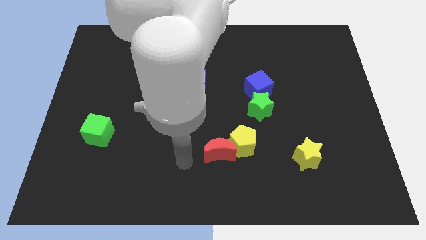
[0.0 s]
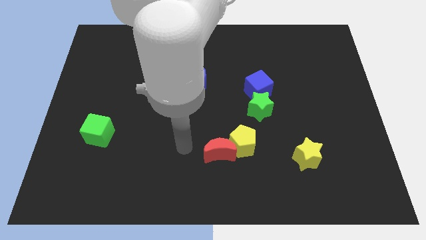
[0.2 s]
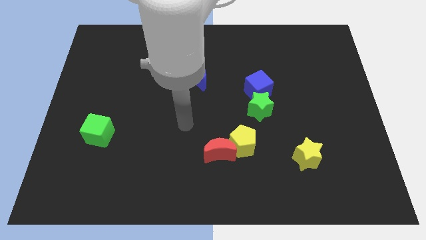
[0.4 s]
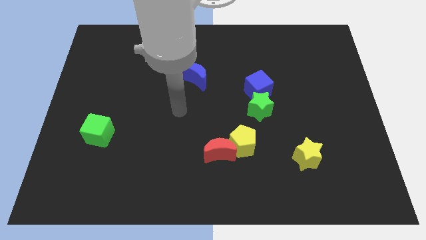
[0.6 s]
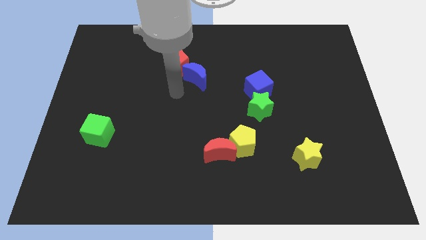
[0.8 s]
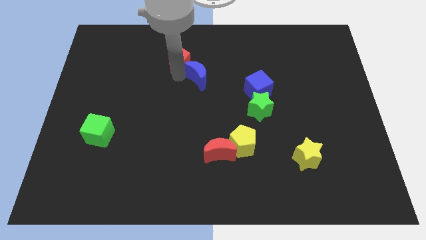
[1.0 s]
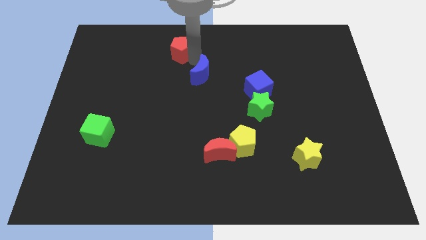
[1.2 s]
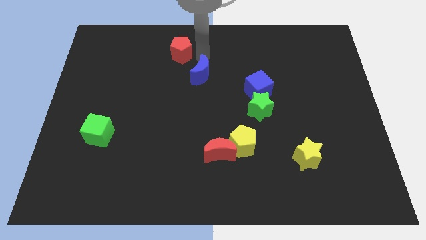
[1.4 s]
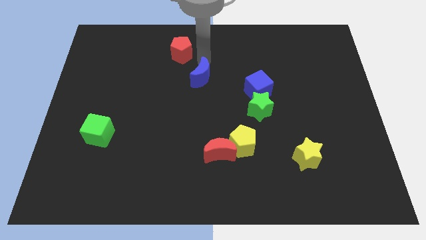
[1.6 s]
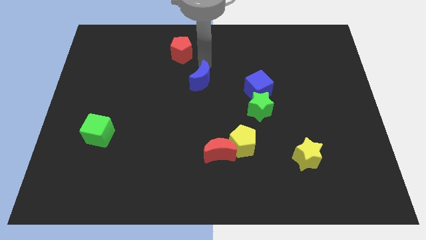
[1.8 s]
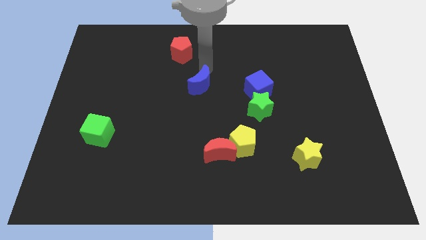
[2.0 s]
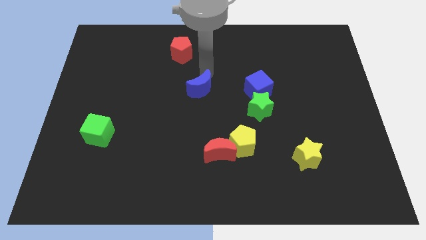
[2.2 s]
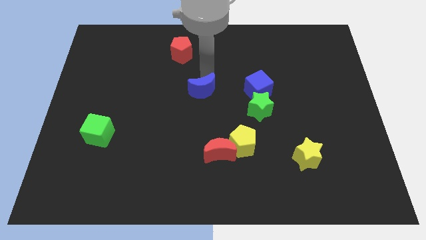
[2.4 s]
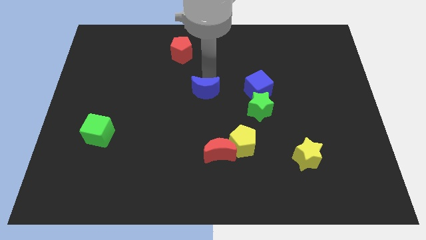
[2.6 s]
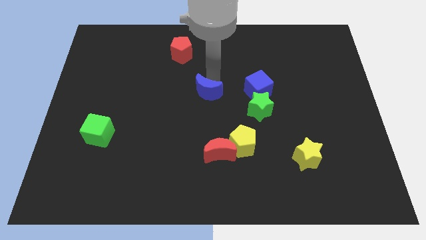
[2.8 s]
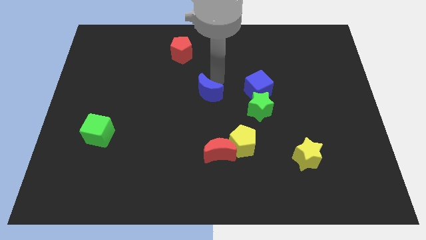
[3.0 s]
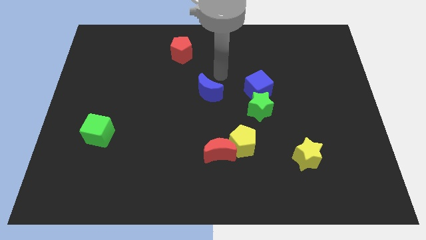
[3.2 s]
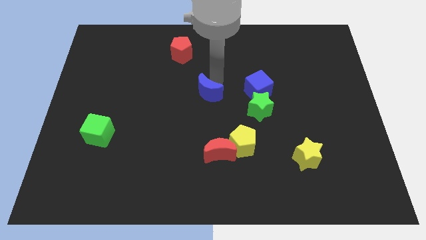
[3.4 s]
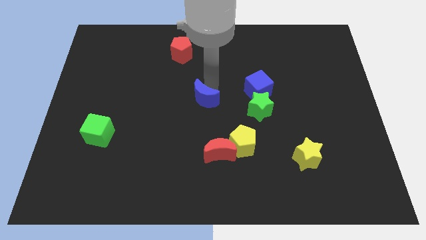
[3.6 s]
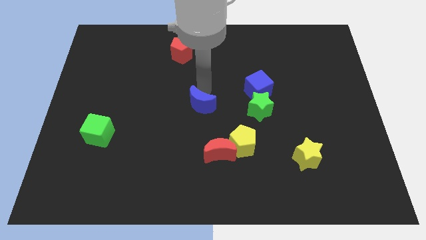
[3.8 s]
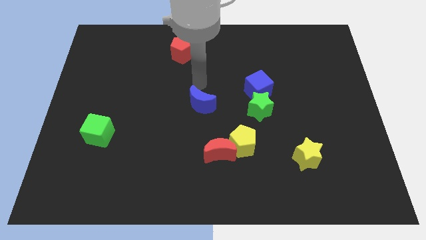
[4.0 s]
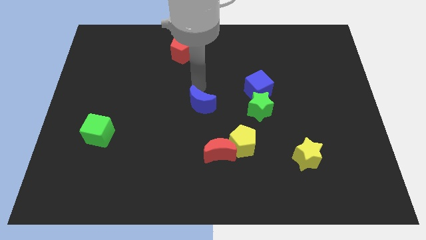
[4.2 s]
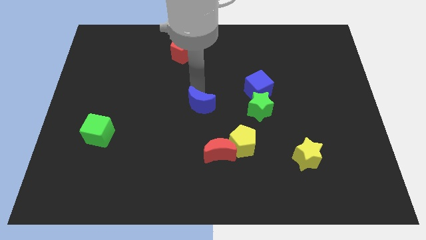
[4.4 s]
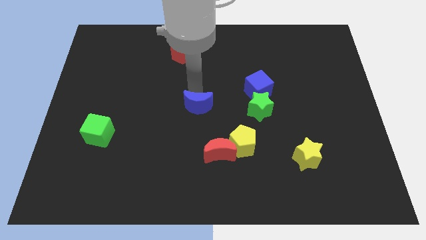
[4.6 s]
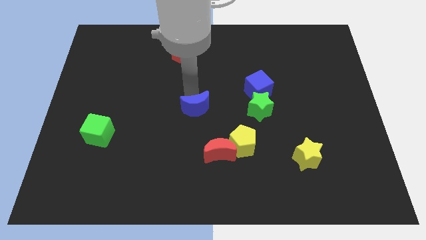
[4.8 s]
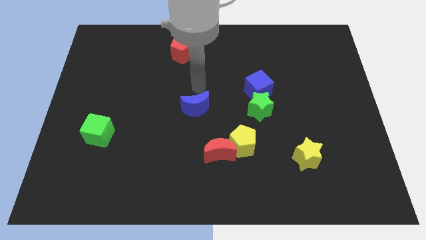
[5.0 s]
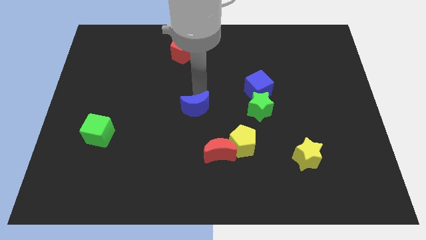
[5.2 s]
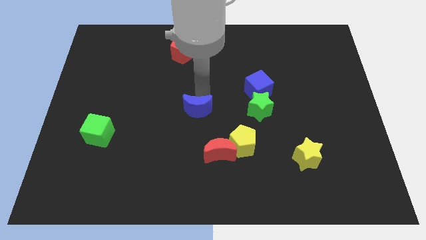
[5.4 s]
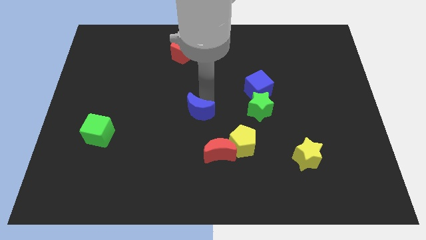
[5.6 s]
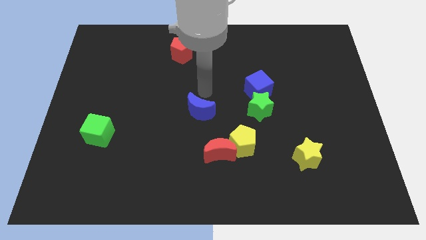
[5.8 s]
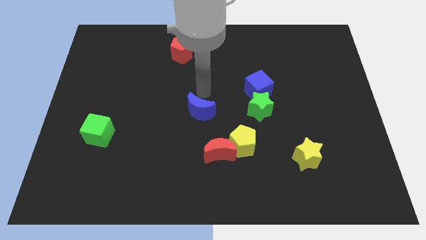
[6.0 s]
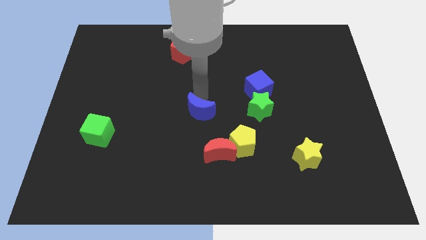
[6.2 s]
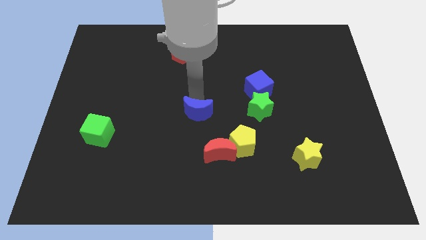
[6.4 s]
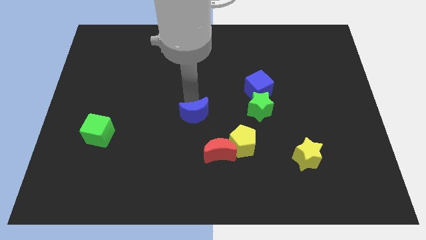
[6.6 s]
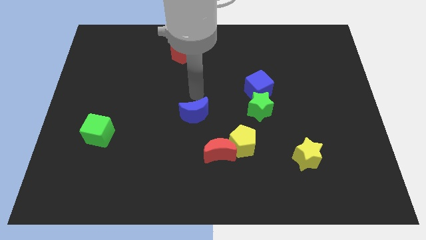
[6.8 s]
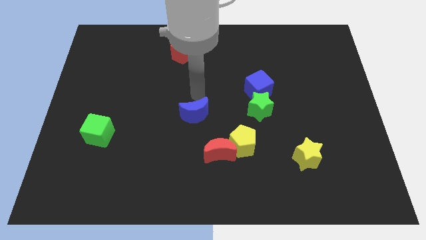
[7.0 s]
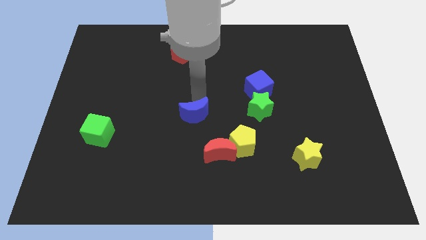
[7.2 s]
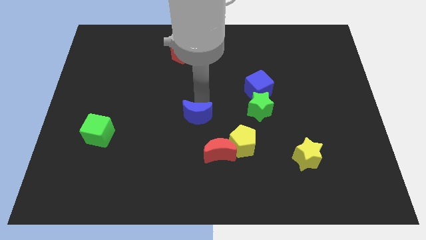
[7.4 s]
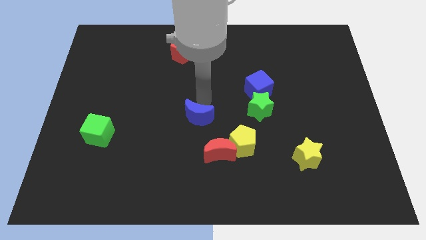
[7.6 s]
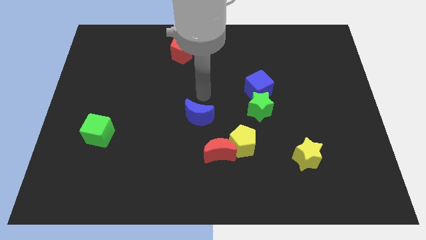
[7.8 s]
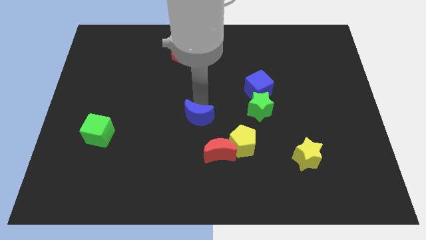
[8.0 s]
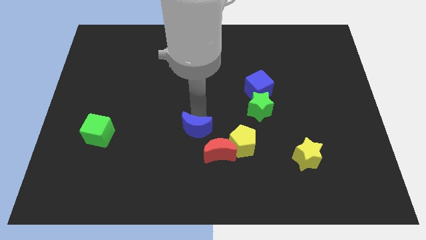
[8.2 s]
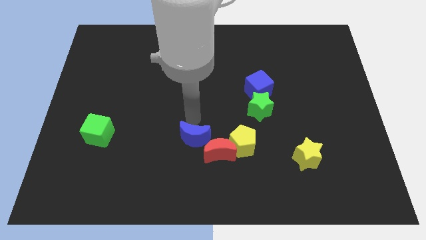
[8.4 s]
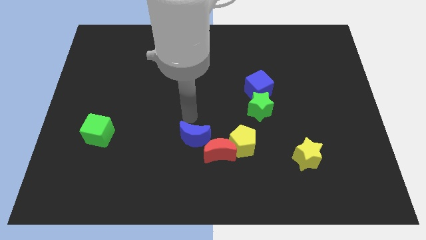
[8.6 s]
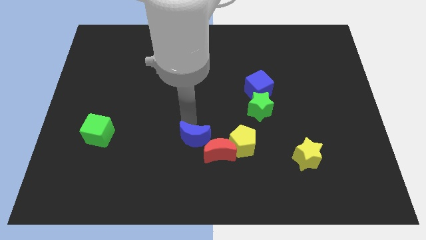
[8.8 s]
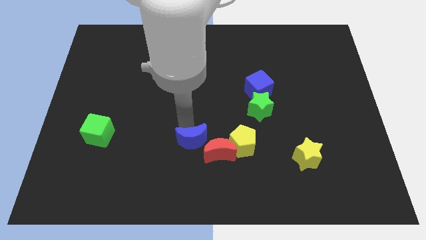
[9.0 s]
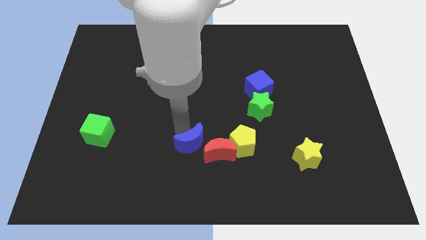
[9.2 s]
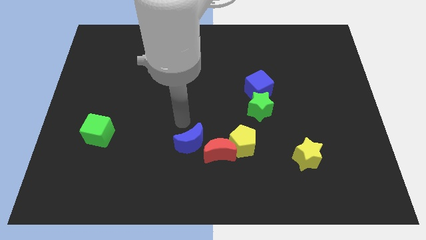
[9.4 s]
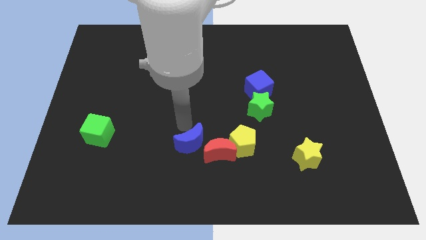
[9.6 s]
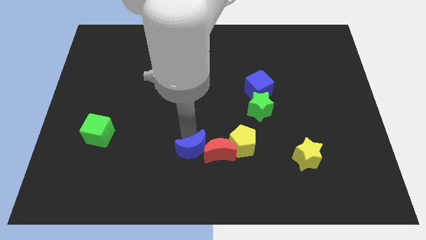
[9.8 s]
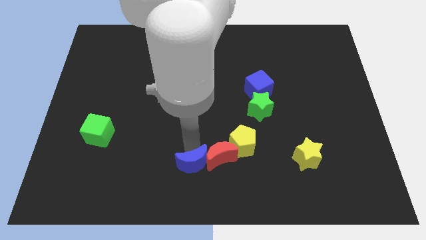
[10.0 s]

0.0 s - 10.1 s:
move the blue moon to the bottom

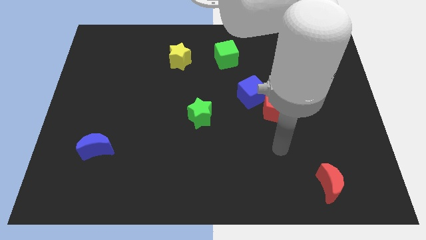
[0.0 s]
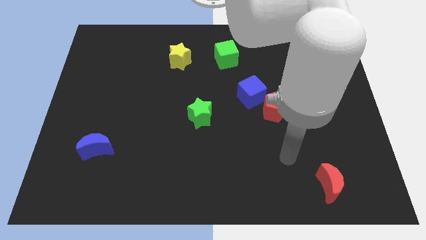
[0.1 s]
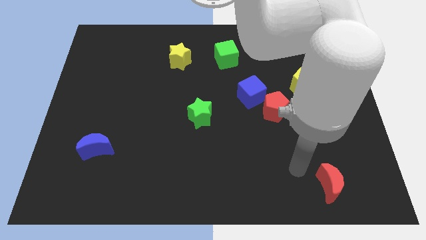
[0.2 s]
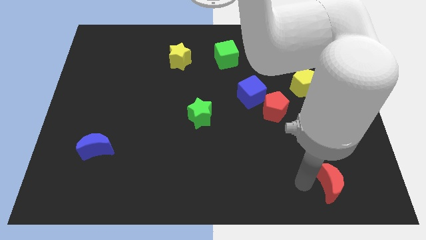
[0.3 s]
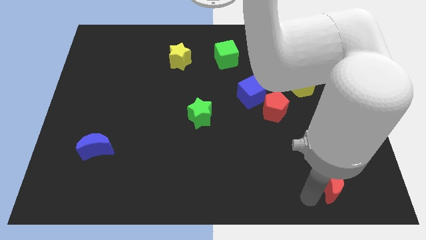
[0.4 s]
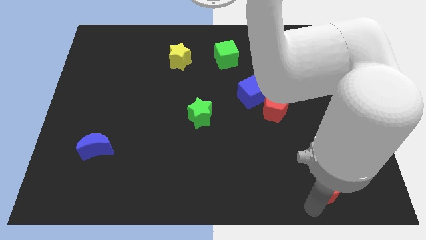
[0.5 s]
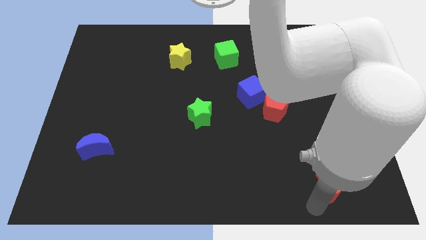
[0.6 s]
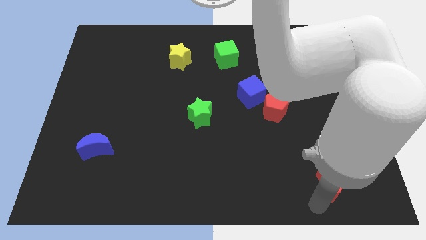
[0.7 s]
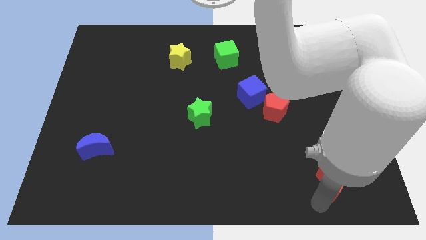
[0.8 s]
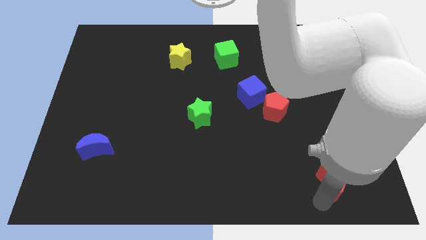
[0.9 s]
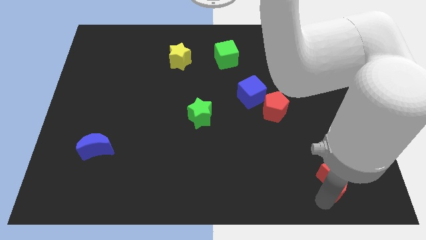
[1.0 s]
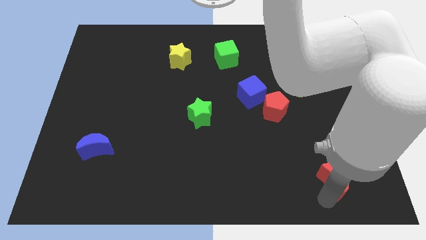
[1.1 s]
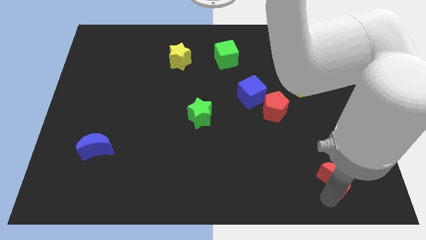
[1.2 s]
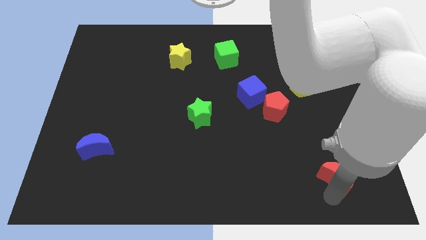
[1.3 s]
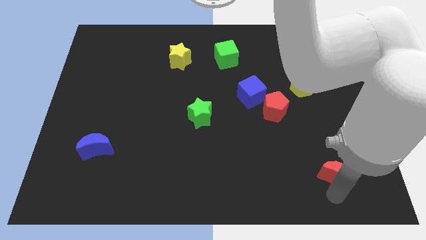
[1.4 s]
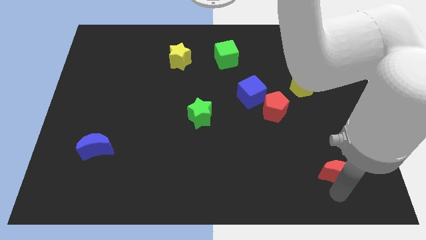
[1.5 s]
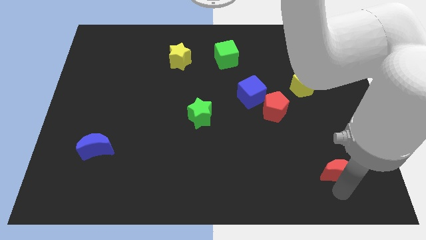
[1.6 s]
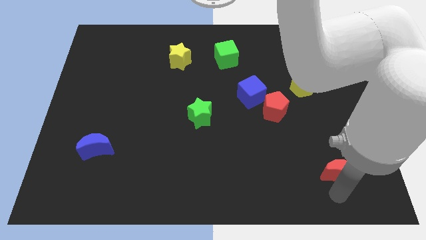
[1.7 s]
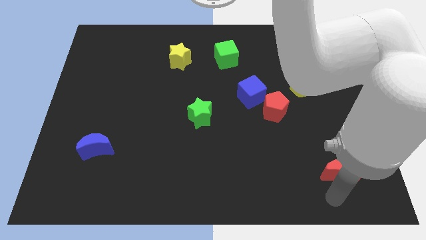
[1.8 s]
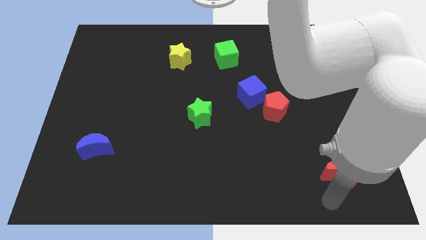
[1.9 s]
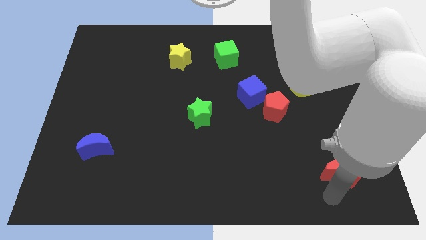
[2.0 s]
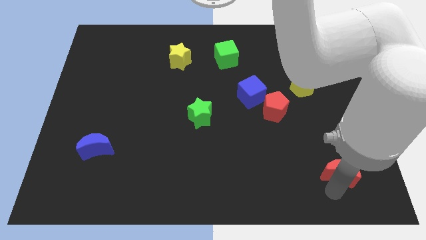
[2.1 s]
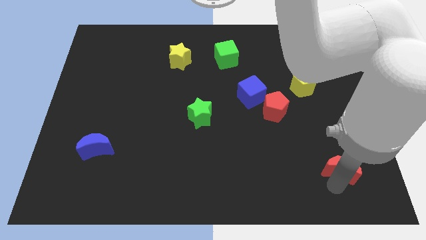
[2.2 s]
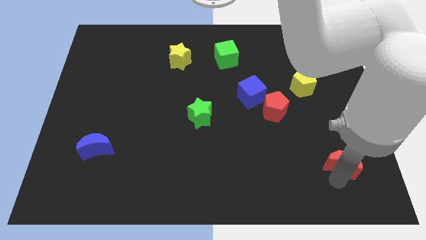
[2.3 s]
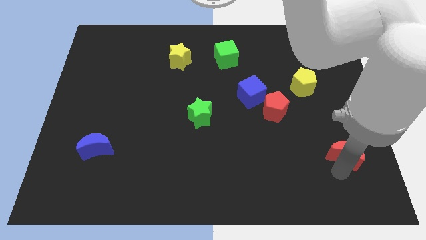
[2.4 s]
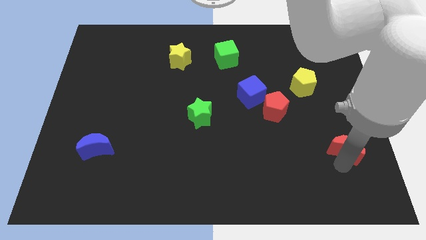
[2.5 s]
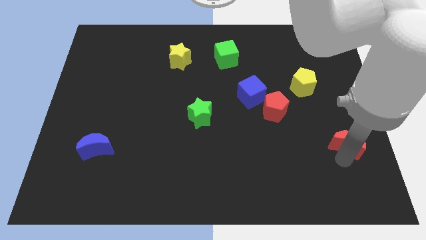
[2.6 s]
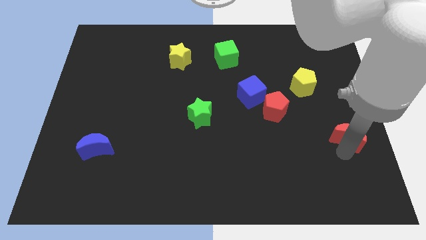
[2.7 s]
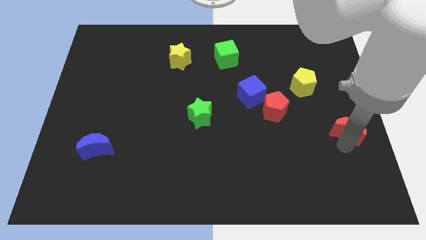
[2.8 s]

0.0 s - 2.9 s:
put the red moon to the right side

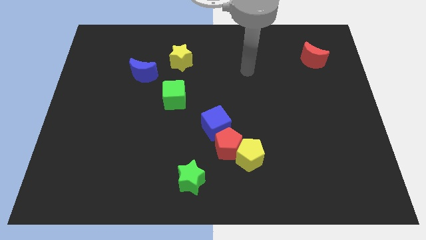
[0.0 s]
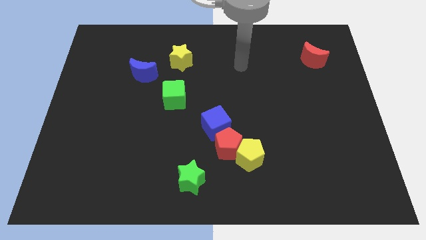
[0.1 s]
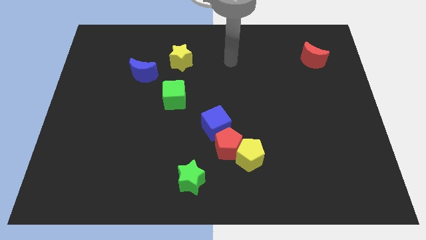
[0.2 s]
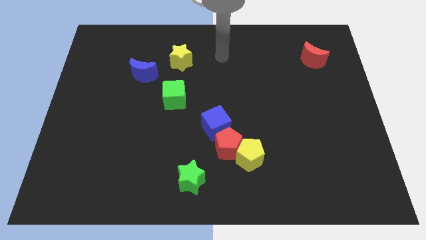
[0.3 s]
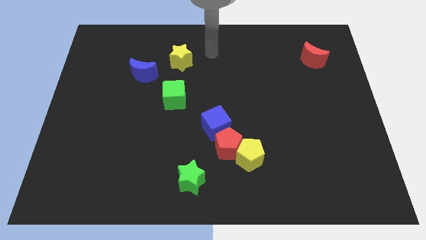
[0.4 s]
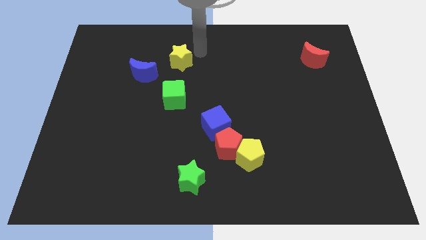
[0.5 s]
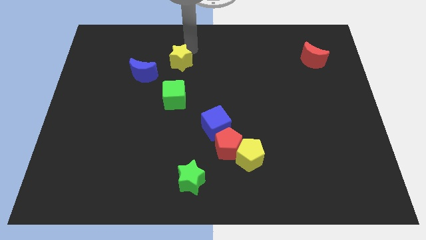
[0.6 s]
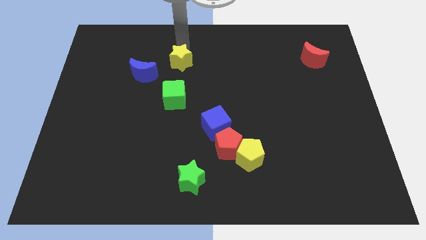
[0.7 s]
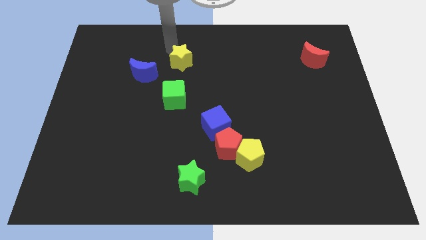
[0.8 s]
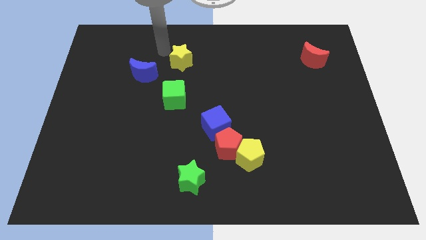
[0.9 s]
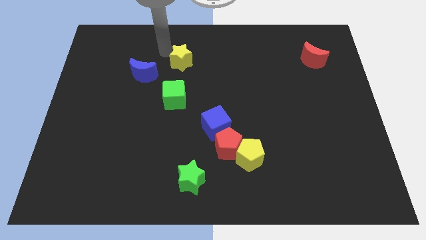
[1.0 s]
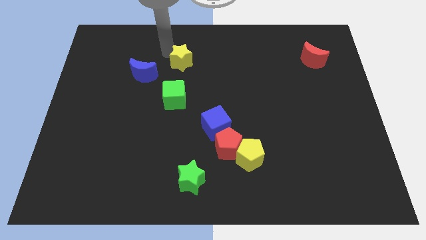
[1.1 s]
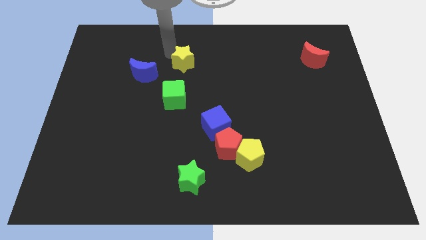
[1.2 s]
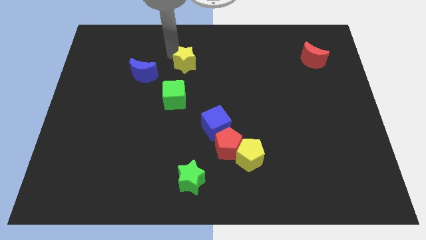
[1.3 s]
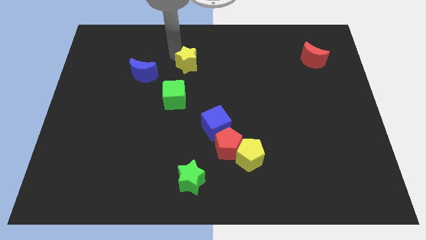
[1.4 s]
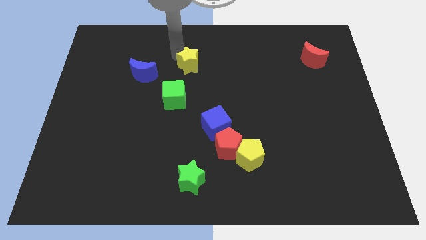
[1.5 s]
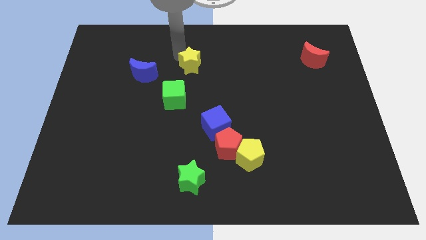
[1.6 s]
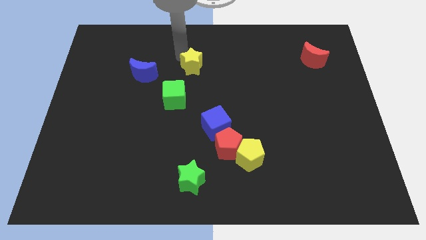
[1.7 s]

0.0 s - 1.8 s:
put the yellow star to the center of the board
